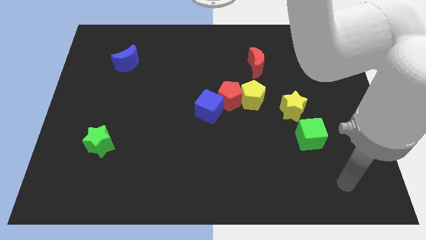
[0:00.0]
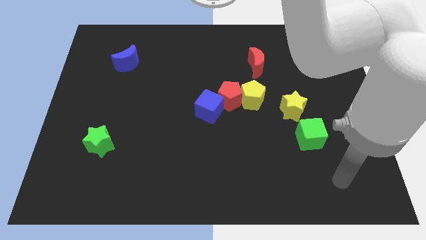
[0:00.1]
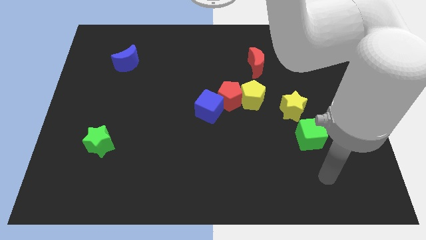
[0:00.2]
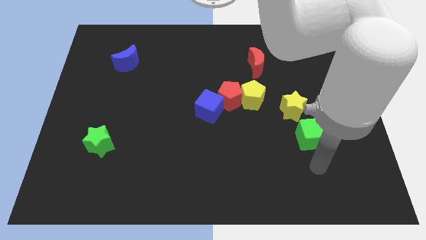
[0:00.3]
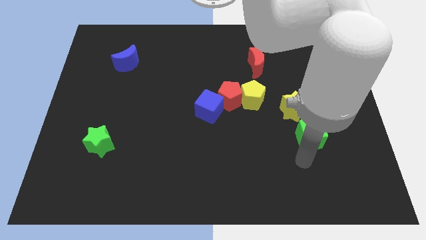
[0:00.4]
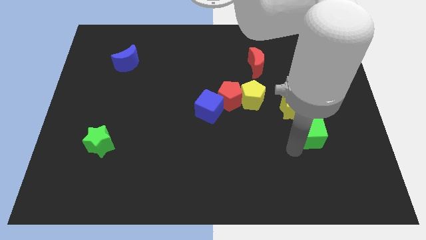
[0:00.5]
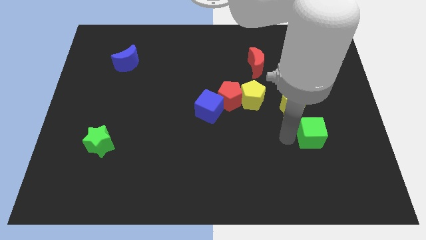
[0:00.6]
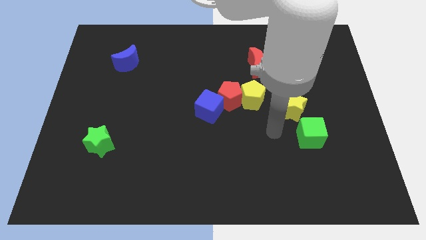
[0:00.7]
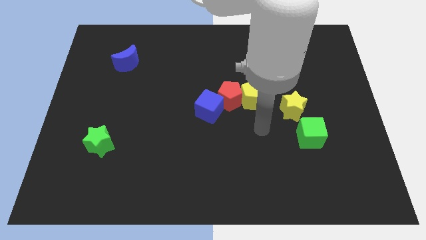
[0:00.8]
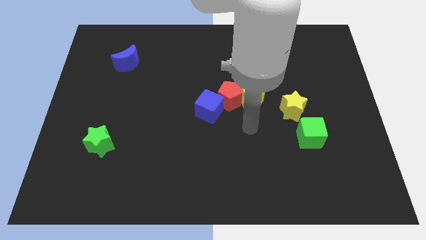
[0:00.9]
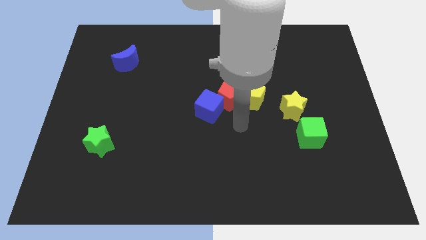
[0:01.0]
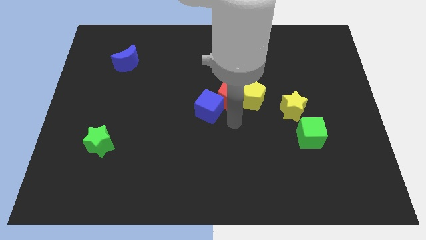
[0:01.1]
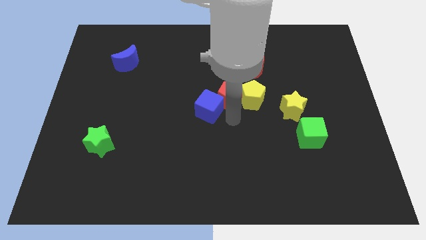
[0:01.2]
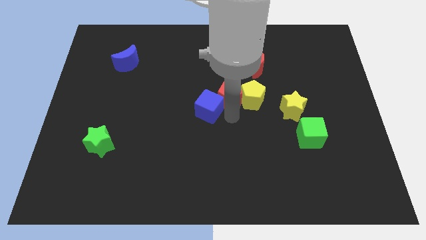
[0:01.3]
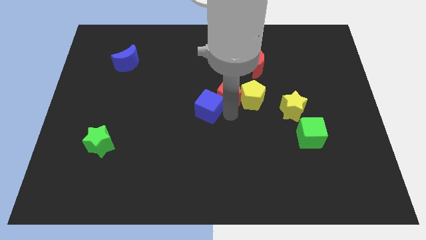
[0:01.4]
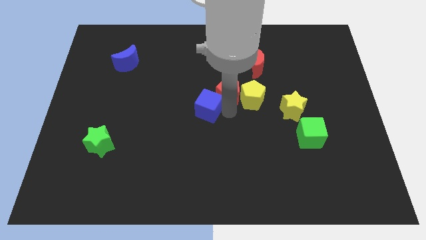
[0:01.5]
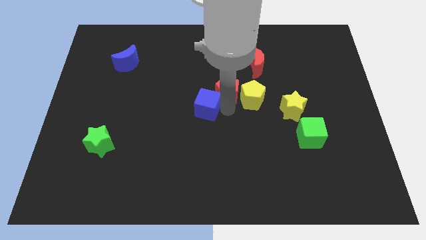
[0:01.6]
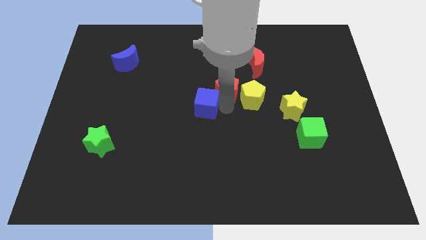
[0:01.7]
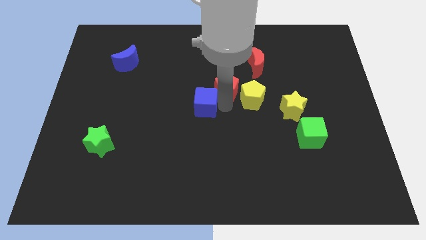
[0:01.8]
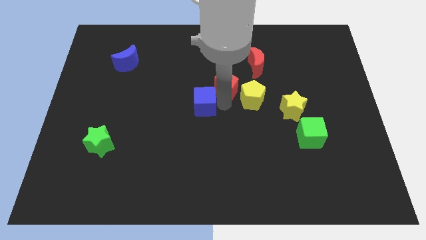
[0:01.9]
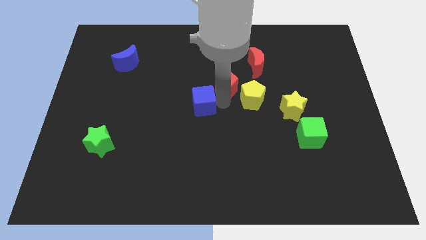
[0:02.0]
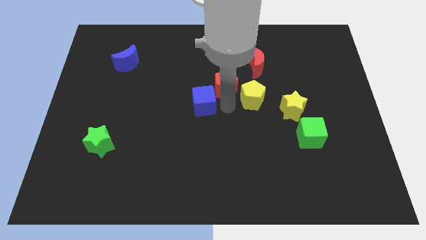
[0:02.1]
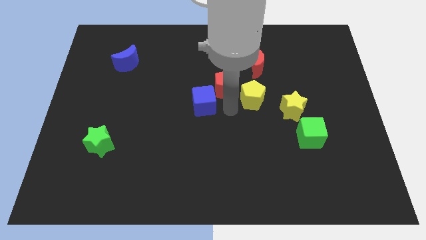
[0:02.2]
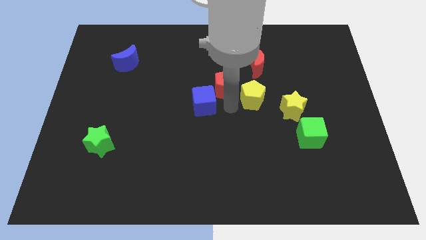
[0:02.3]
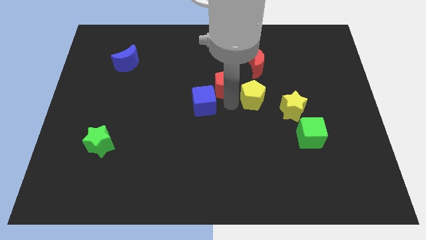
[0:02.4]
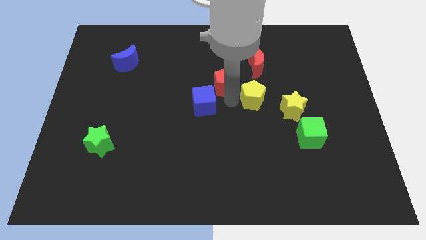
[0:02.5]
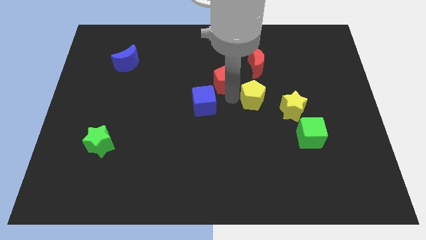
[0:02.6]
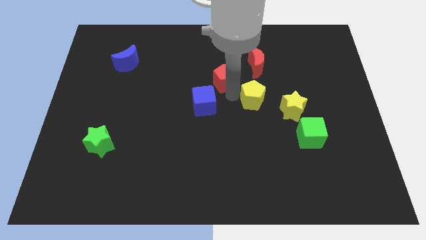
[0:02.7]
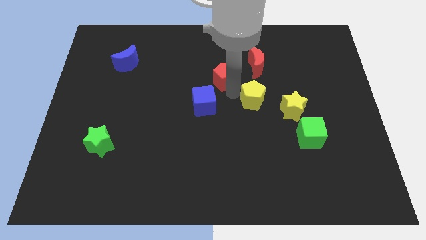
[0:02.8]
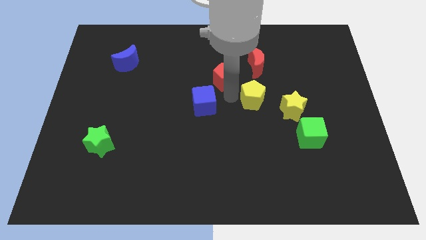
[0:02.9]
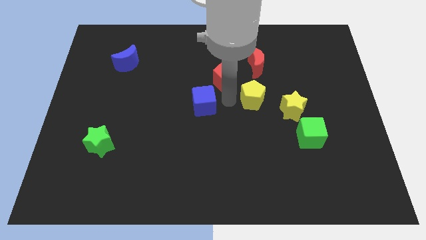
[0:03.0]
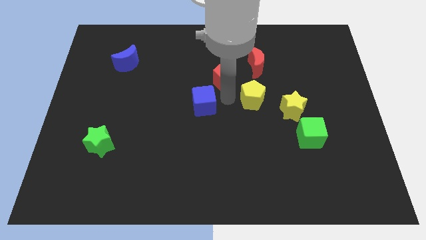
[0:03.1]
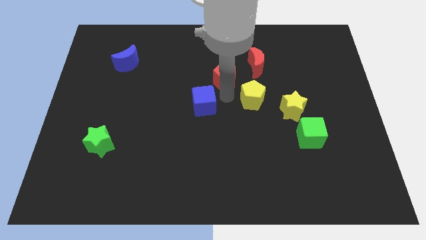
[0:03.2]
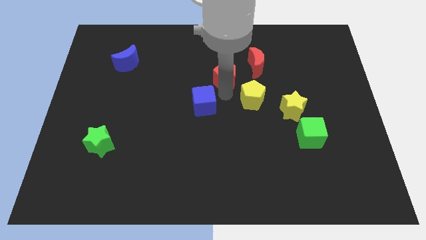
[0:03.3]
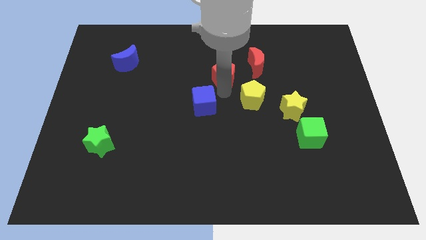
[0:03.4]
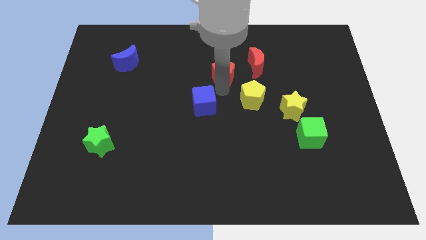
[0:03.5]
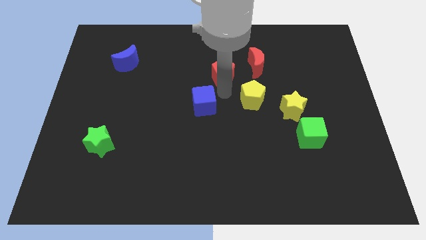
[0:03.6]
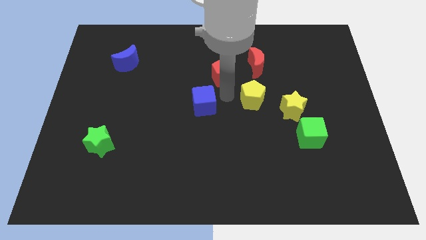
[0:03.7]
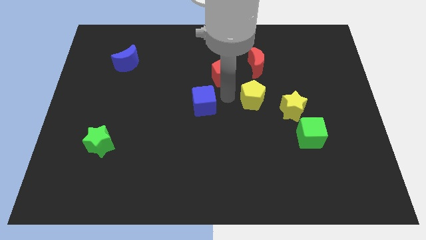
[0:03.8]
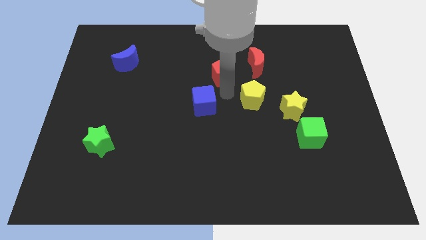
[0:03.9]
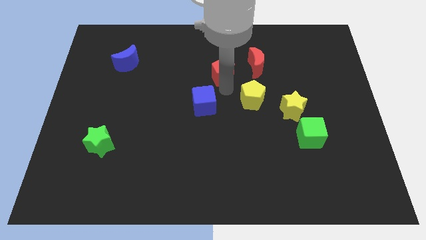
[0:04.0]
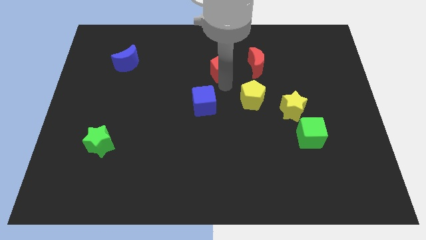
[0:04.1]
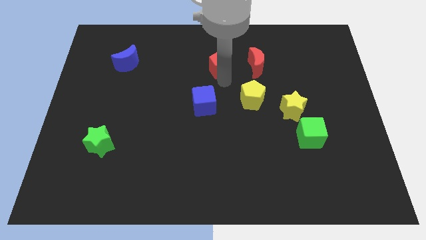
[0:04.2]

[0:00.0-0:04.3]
move the red pentagon away from the yellow pentagon and blue cube

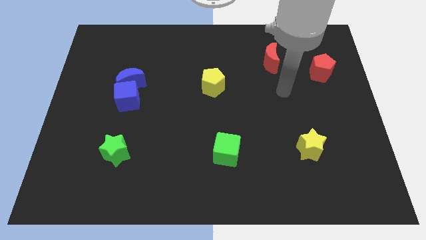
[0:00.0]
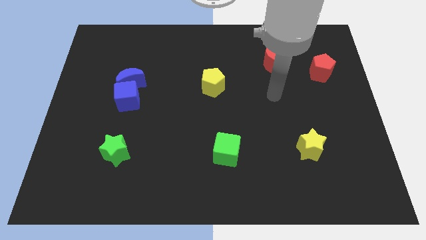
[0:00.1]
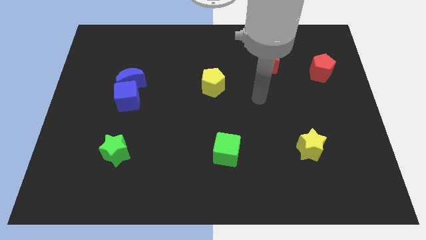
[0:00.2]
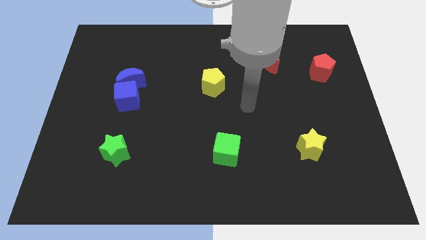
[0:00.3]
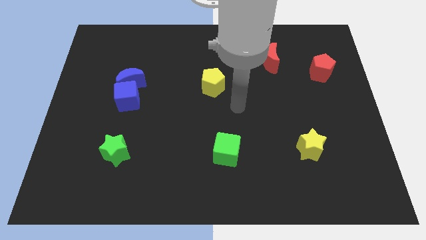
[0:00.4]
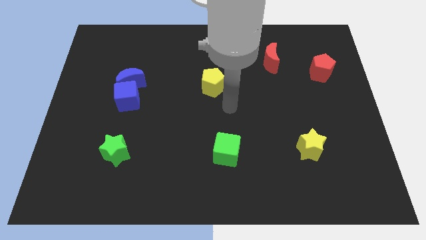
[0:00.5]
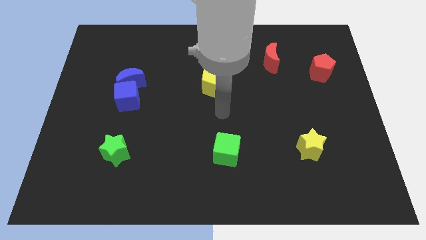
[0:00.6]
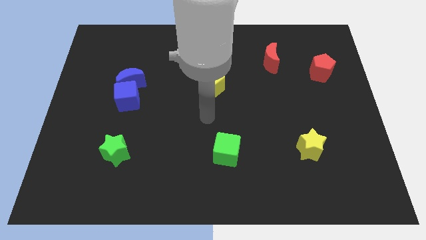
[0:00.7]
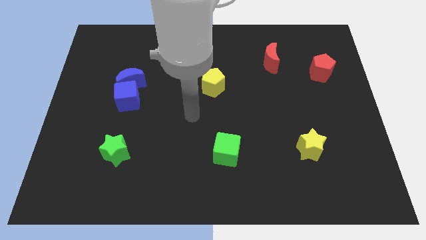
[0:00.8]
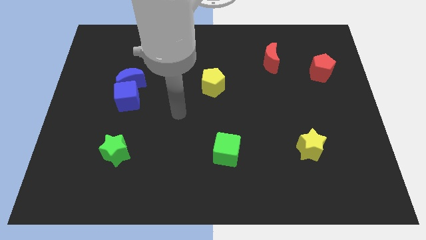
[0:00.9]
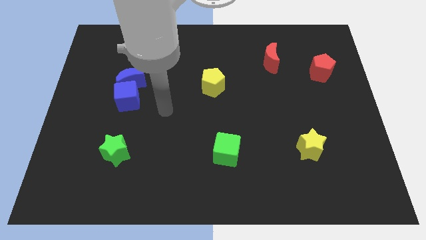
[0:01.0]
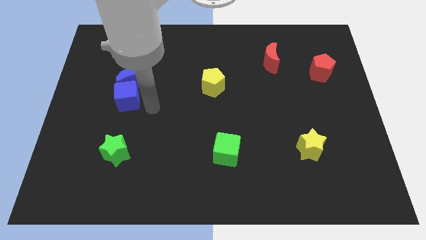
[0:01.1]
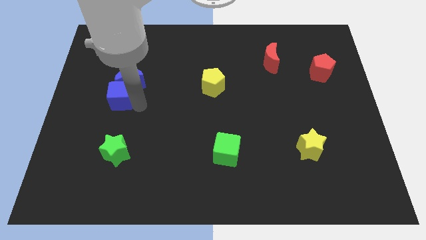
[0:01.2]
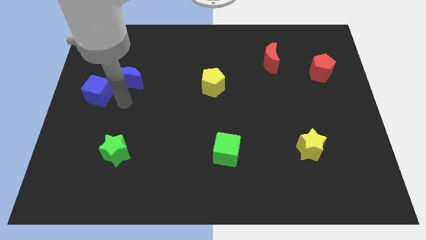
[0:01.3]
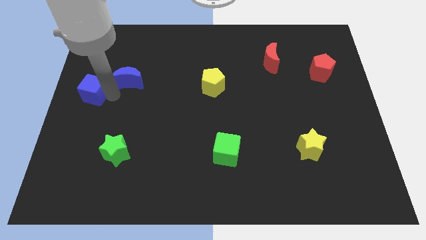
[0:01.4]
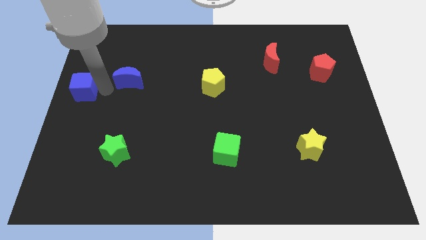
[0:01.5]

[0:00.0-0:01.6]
separate the blue moon from the blue cube

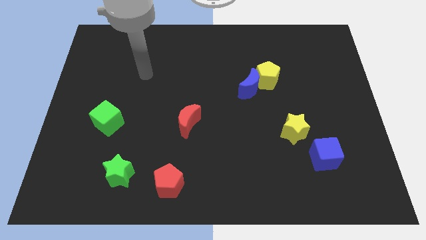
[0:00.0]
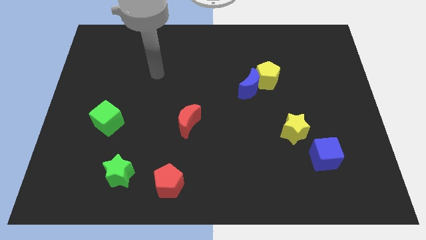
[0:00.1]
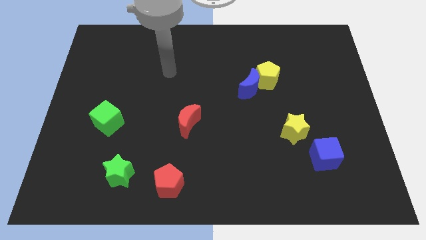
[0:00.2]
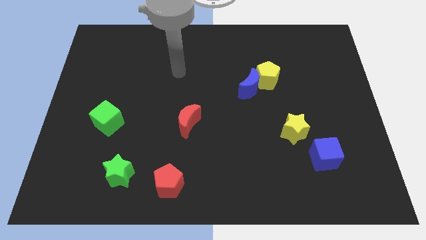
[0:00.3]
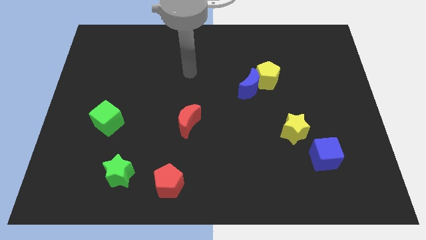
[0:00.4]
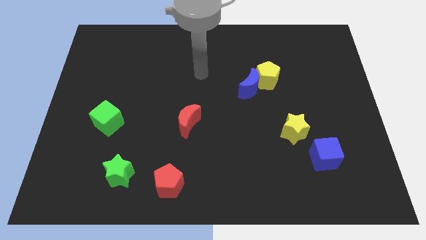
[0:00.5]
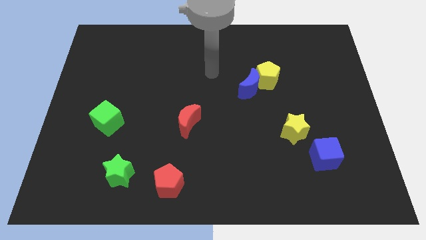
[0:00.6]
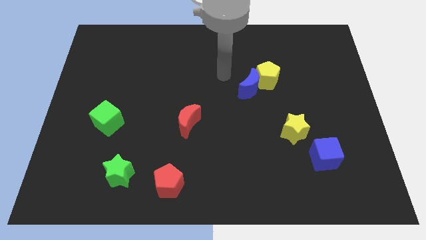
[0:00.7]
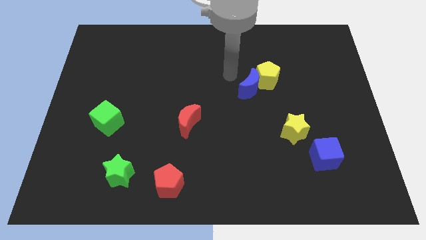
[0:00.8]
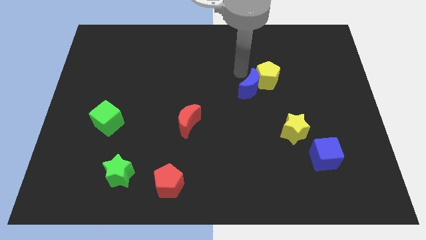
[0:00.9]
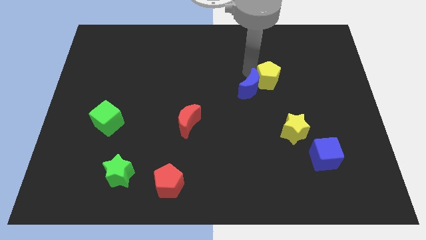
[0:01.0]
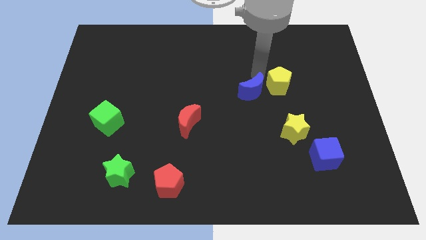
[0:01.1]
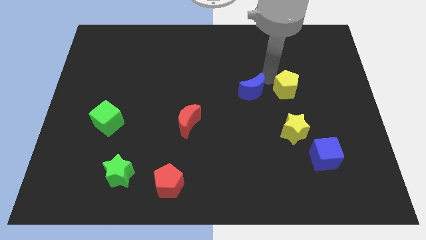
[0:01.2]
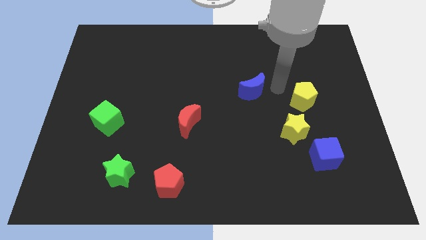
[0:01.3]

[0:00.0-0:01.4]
separate the blue moon from the yellow pentagon

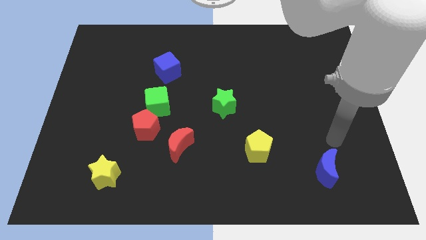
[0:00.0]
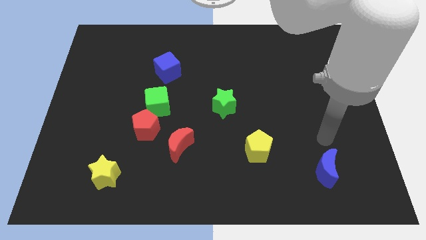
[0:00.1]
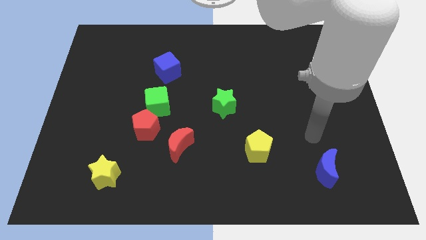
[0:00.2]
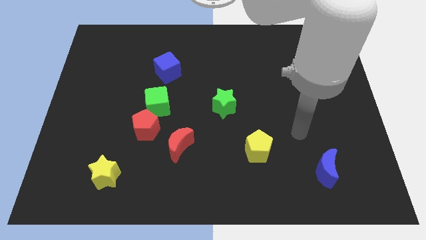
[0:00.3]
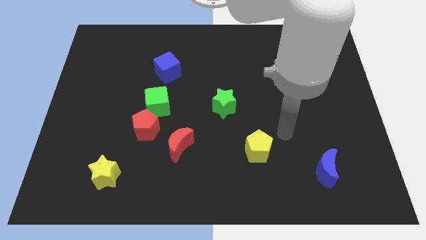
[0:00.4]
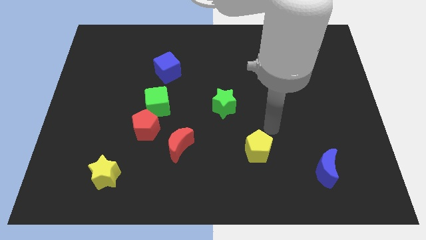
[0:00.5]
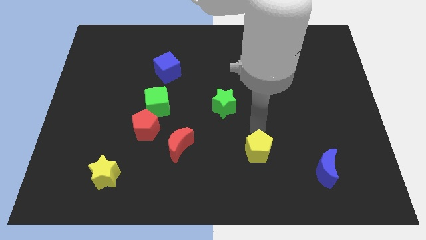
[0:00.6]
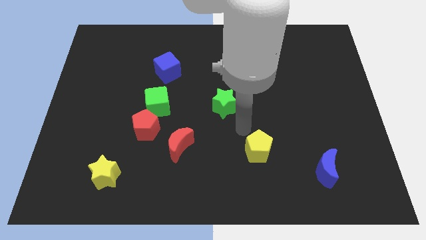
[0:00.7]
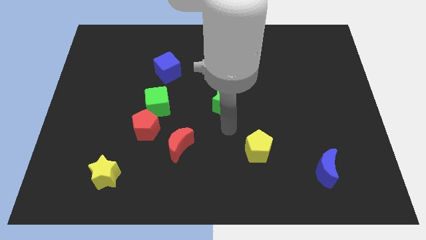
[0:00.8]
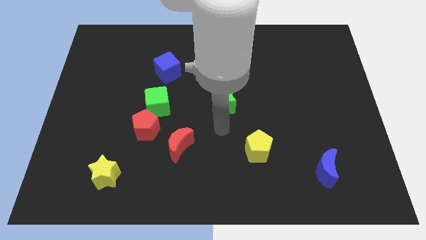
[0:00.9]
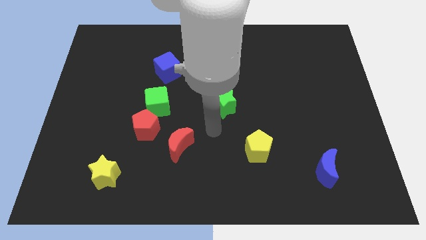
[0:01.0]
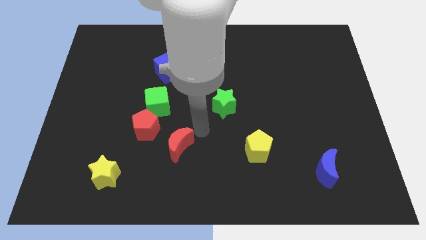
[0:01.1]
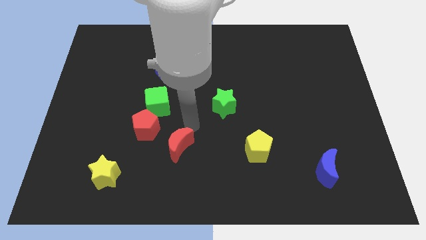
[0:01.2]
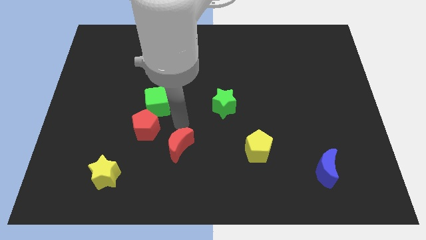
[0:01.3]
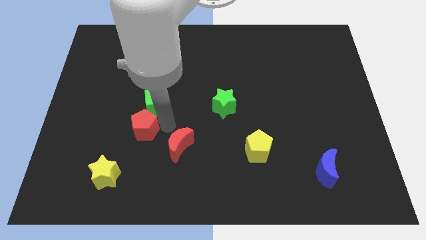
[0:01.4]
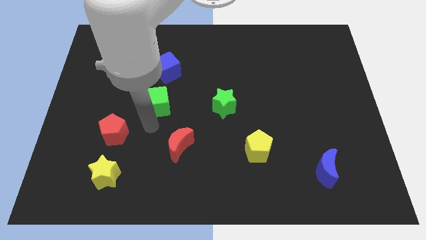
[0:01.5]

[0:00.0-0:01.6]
separate the green cube from the red pentagon

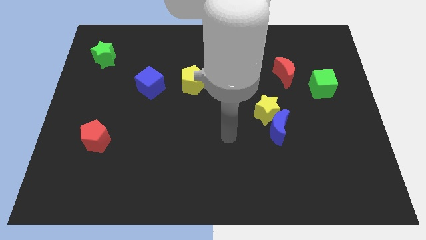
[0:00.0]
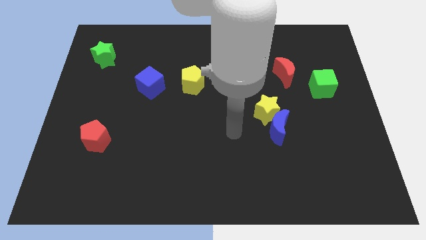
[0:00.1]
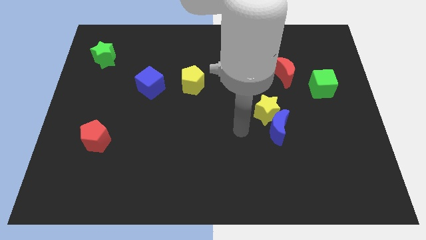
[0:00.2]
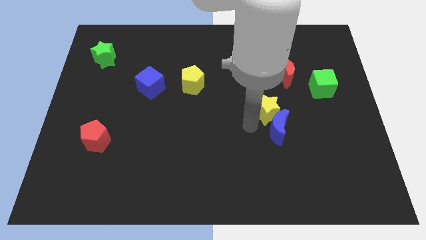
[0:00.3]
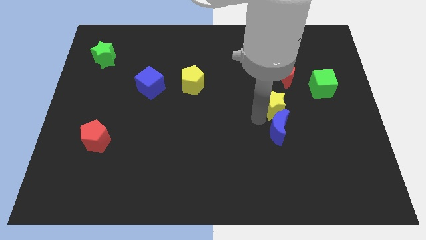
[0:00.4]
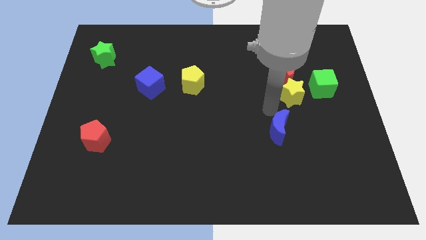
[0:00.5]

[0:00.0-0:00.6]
separate the blue moon from the yellow star
